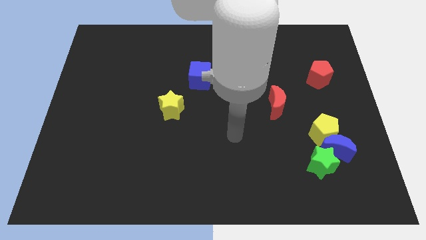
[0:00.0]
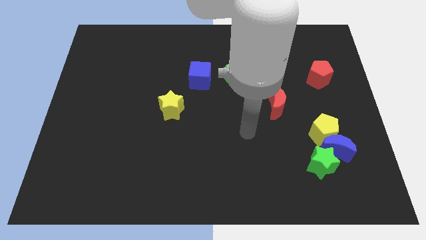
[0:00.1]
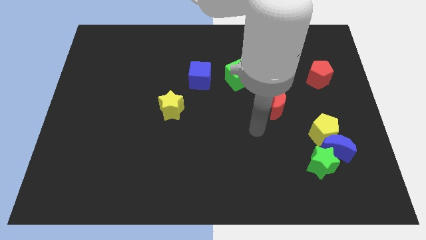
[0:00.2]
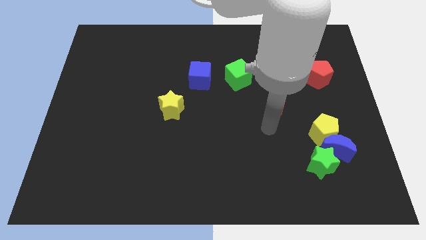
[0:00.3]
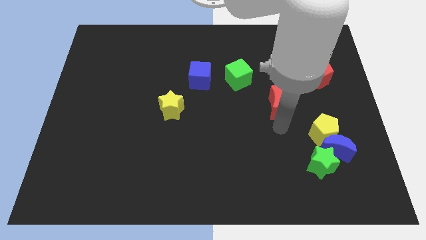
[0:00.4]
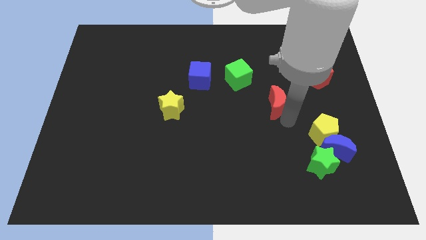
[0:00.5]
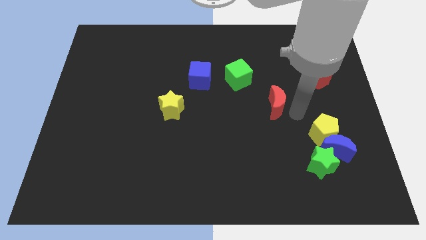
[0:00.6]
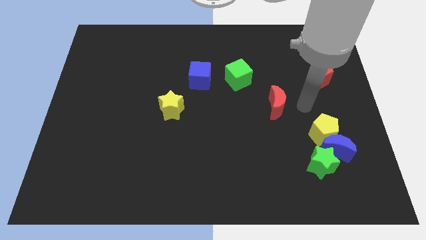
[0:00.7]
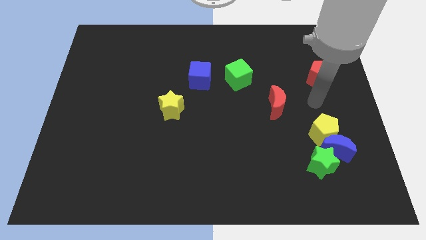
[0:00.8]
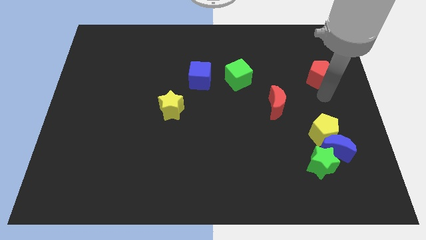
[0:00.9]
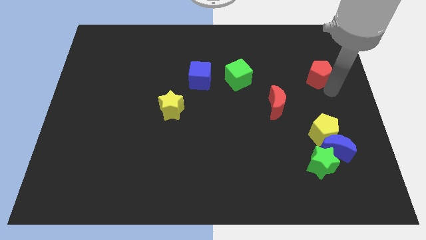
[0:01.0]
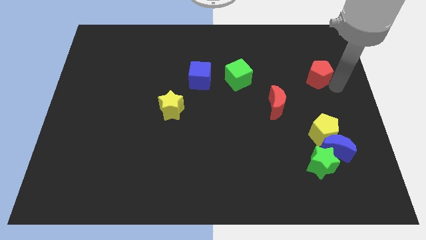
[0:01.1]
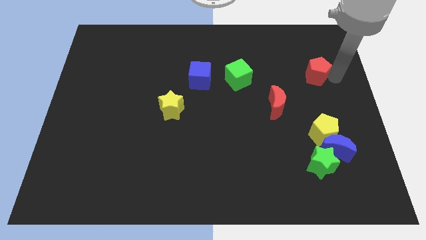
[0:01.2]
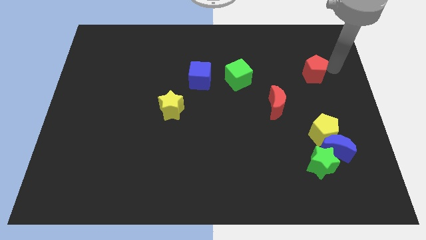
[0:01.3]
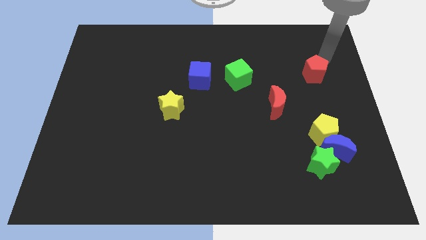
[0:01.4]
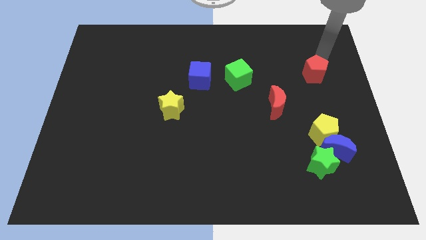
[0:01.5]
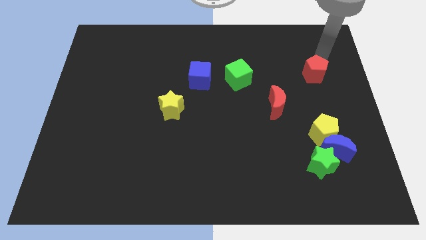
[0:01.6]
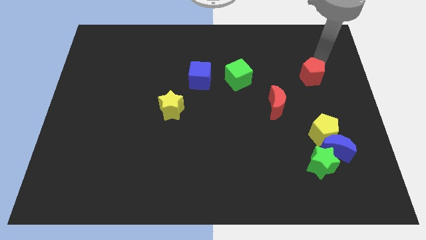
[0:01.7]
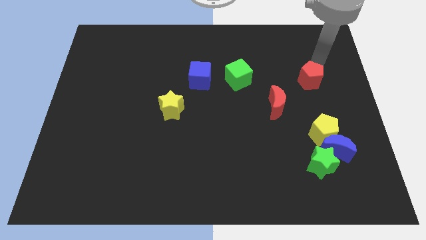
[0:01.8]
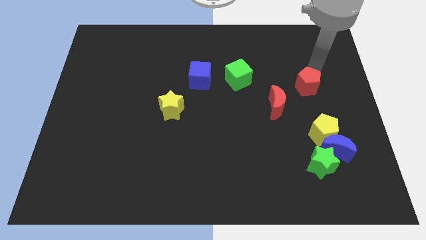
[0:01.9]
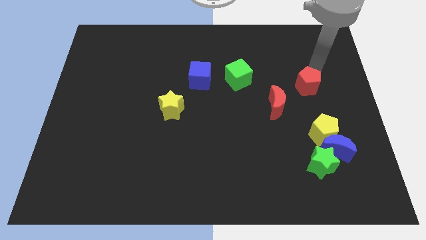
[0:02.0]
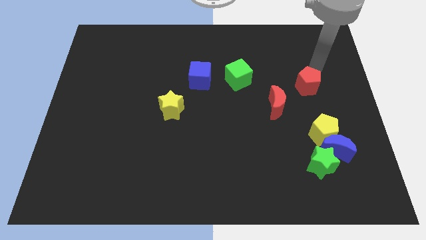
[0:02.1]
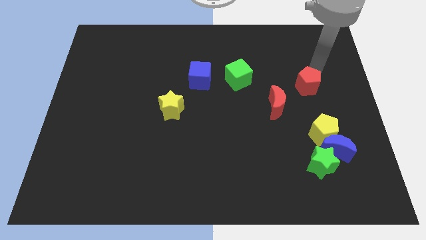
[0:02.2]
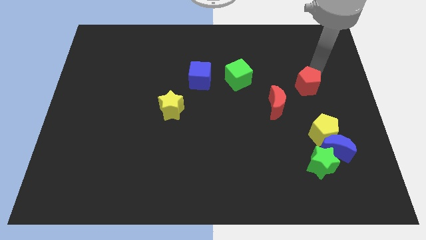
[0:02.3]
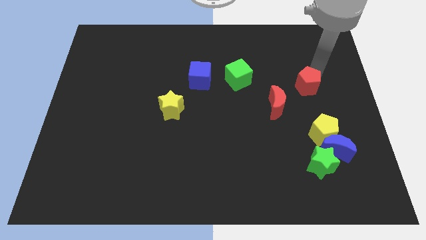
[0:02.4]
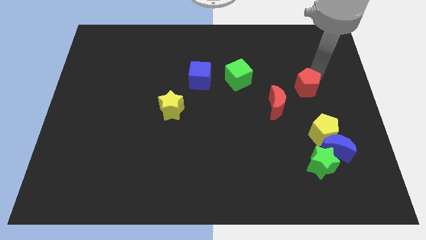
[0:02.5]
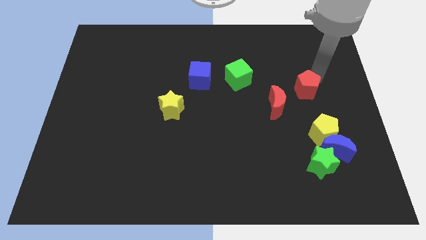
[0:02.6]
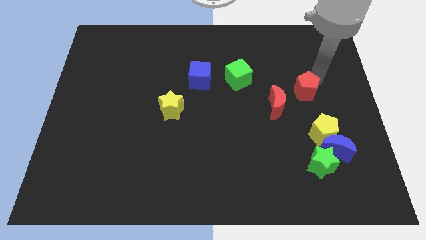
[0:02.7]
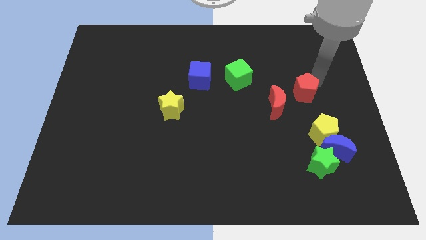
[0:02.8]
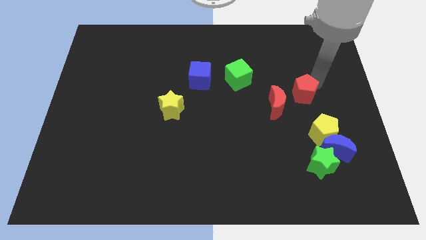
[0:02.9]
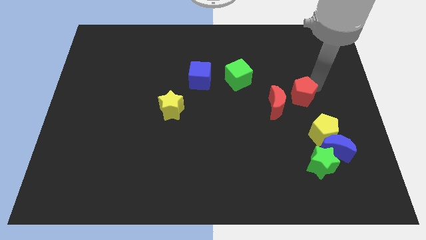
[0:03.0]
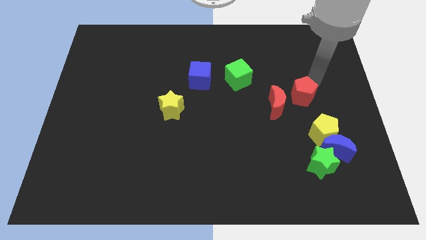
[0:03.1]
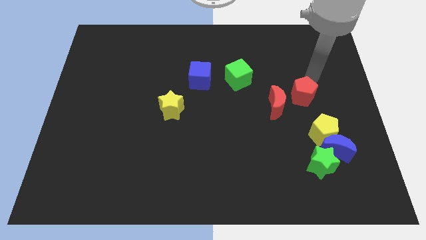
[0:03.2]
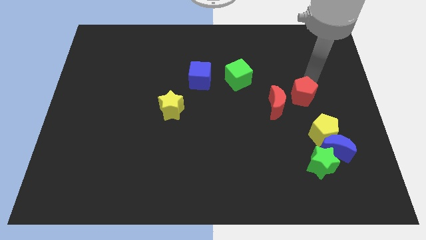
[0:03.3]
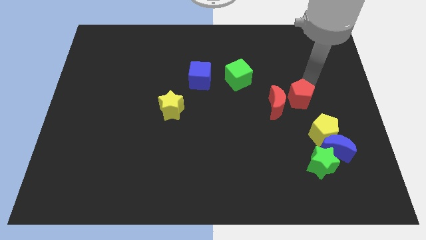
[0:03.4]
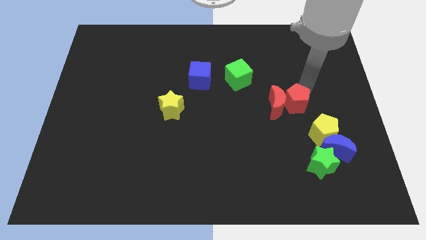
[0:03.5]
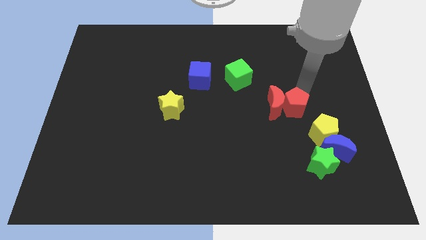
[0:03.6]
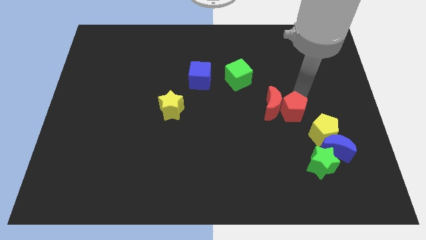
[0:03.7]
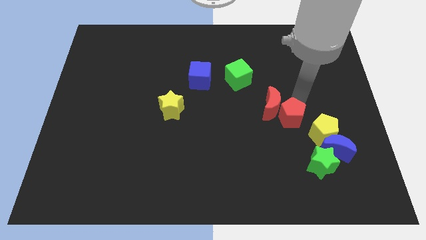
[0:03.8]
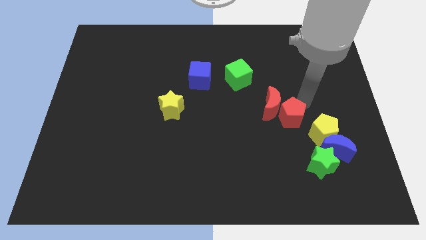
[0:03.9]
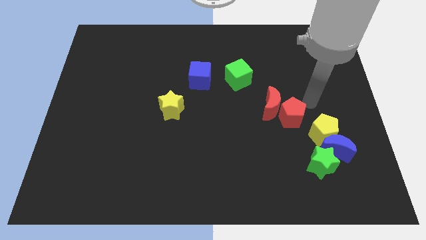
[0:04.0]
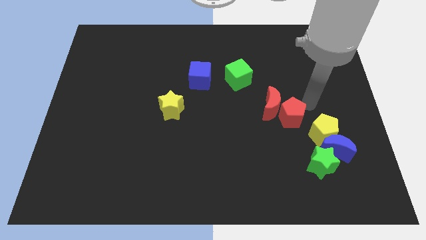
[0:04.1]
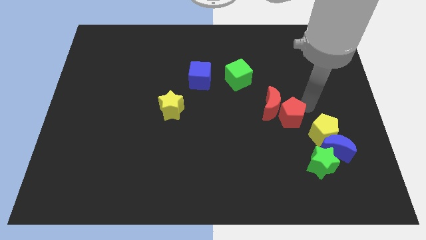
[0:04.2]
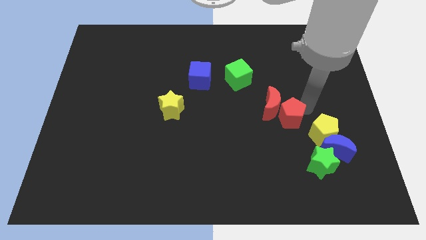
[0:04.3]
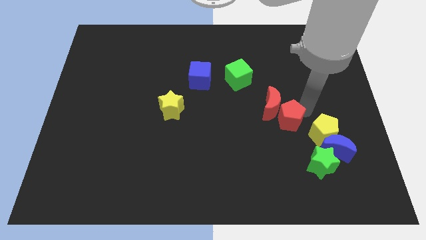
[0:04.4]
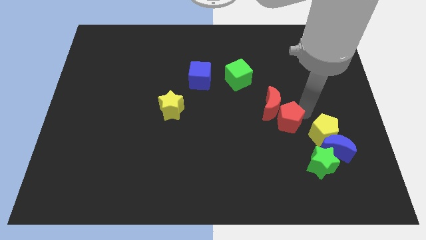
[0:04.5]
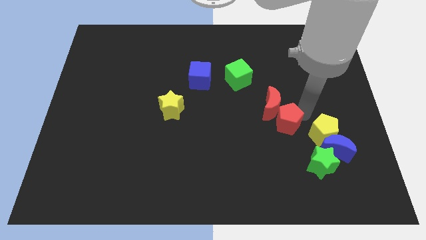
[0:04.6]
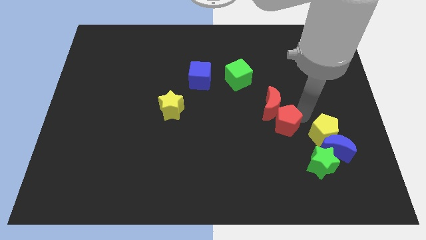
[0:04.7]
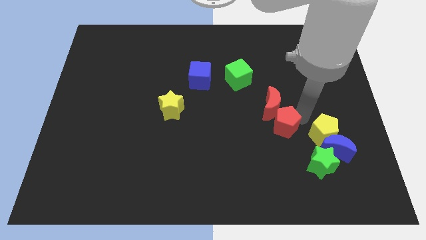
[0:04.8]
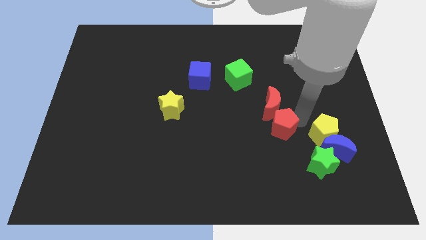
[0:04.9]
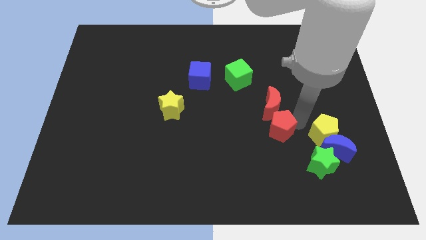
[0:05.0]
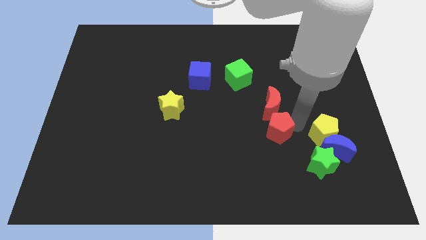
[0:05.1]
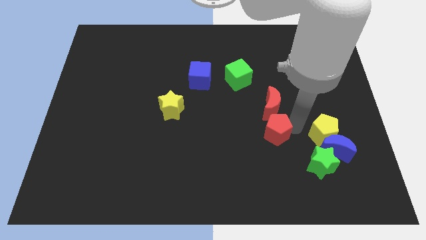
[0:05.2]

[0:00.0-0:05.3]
push the red pentagon down and then left

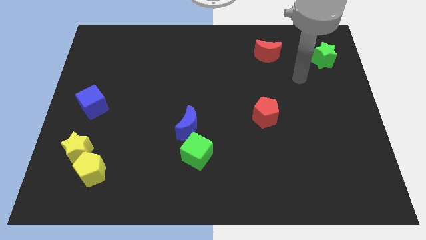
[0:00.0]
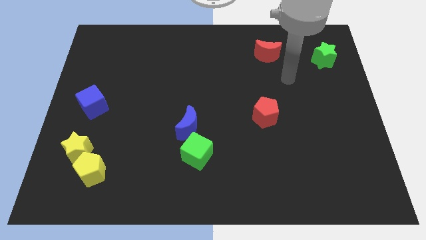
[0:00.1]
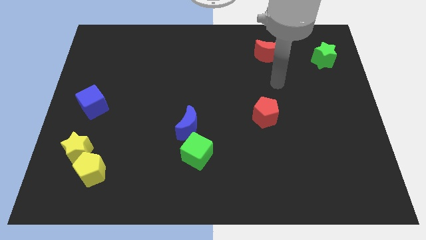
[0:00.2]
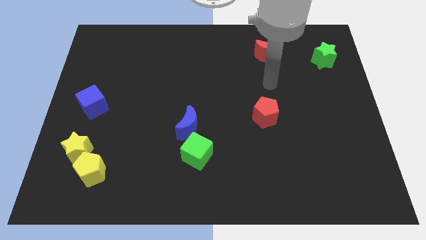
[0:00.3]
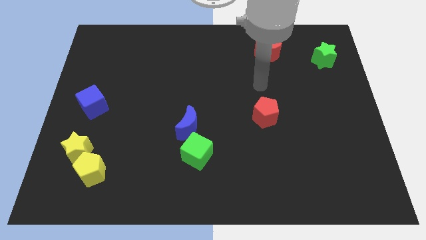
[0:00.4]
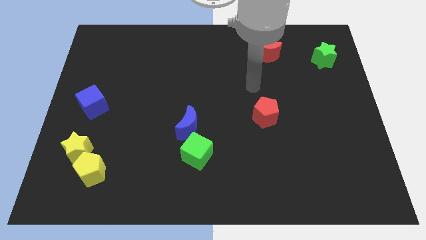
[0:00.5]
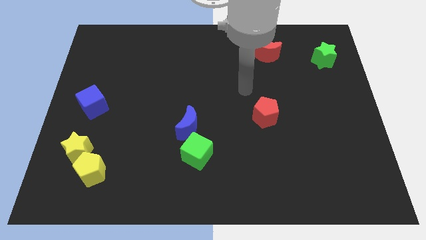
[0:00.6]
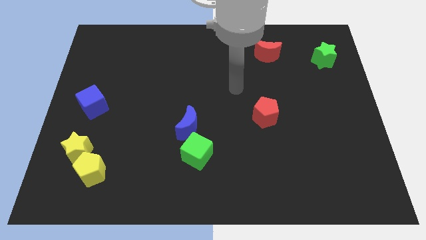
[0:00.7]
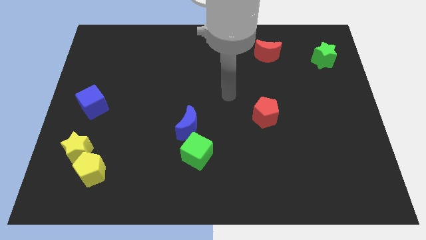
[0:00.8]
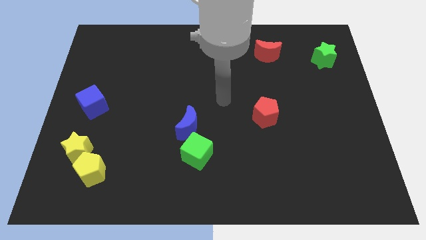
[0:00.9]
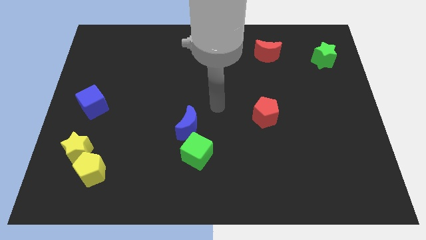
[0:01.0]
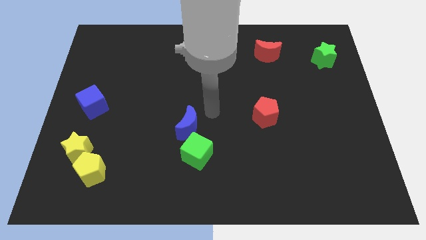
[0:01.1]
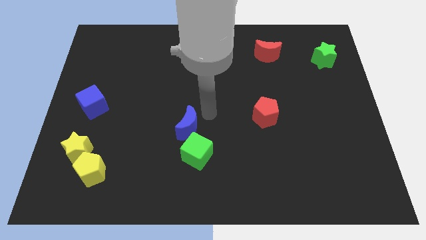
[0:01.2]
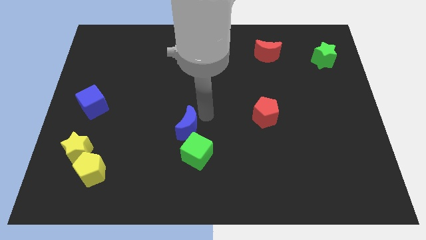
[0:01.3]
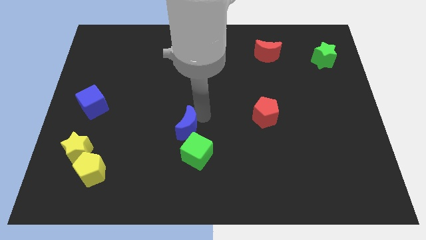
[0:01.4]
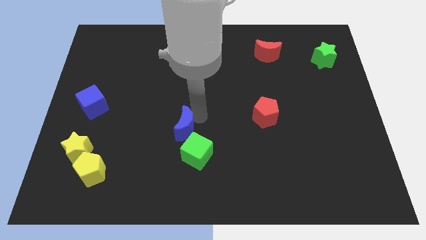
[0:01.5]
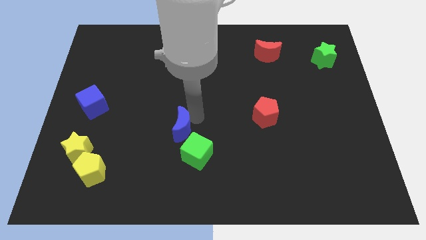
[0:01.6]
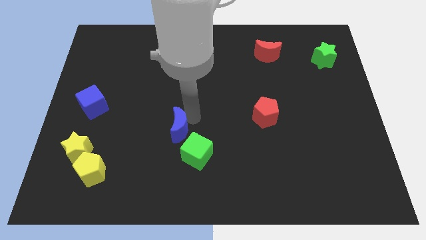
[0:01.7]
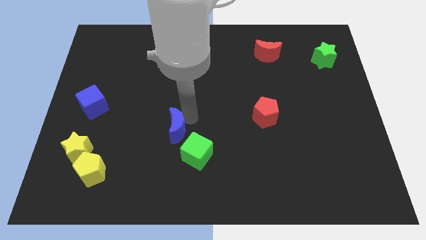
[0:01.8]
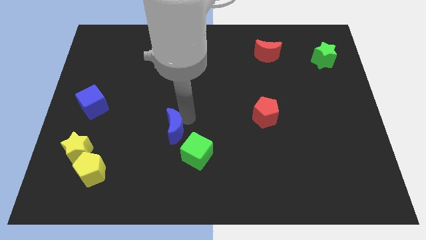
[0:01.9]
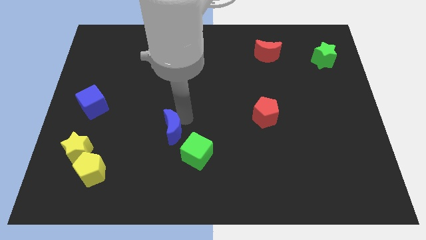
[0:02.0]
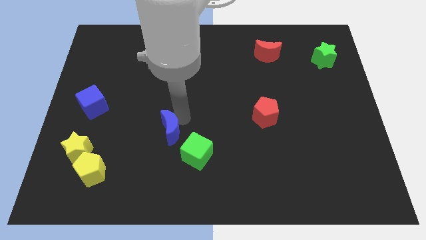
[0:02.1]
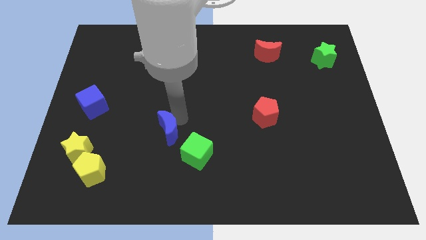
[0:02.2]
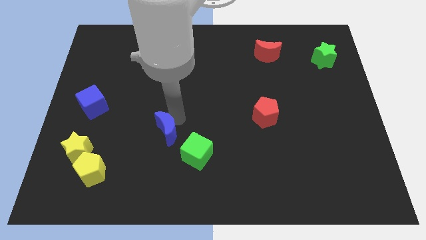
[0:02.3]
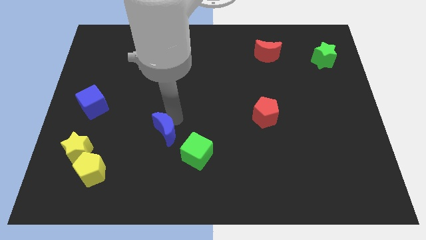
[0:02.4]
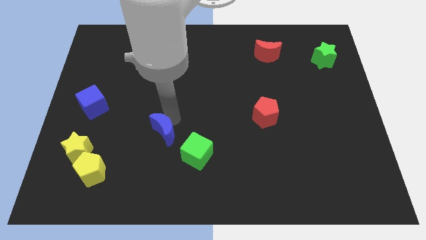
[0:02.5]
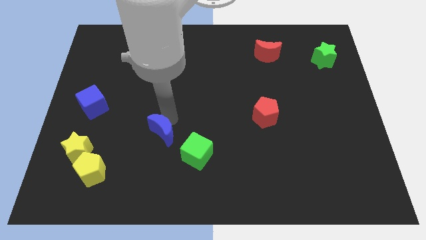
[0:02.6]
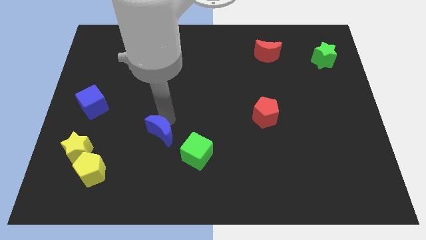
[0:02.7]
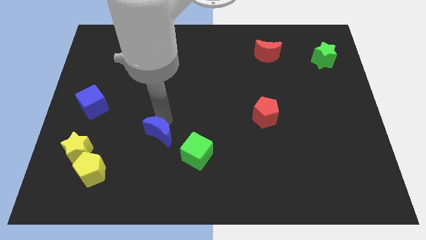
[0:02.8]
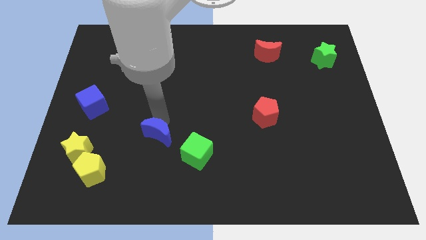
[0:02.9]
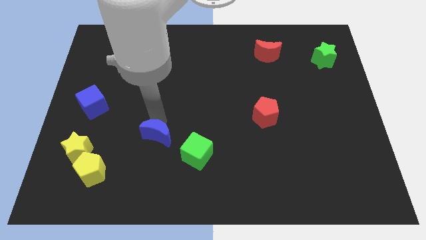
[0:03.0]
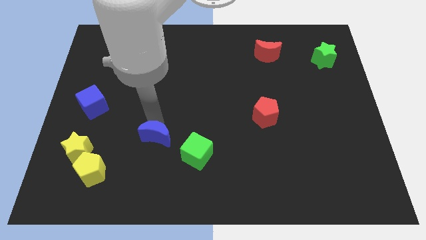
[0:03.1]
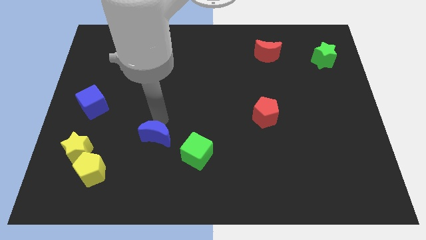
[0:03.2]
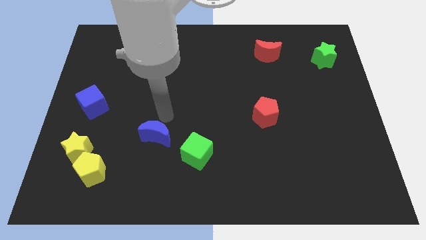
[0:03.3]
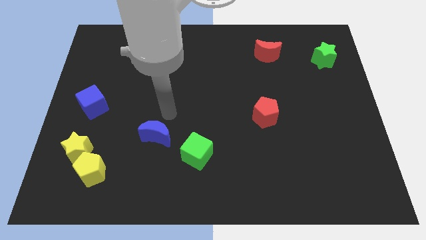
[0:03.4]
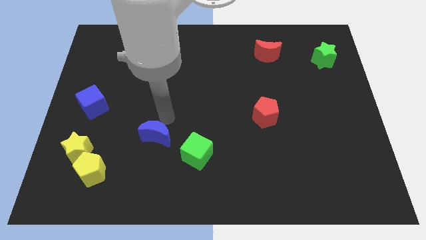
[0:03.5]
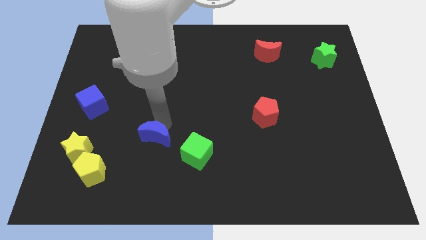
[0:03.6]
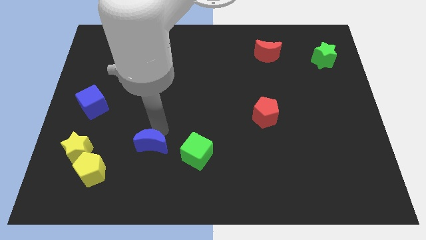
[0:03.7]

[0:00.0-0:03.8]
slightly move the blue moon down and then left
